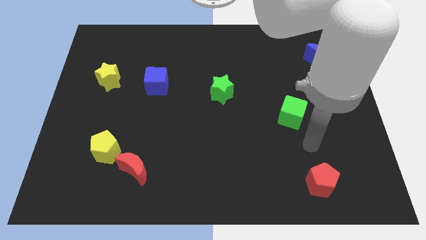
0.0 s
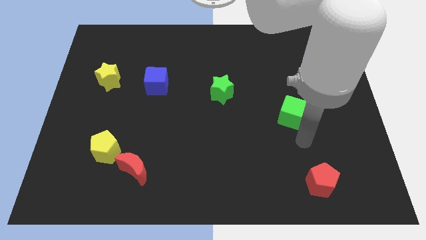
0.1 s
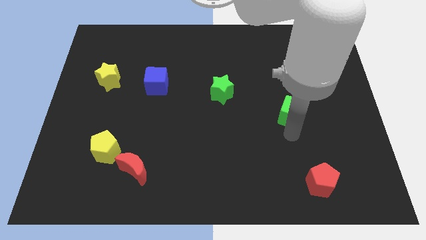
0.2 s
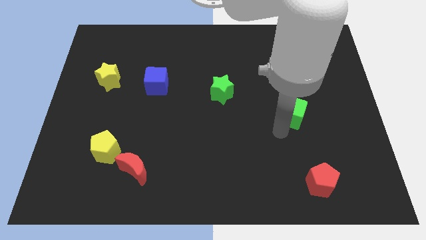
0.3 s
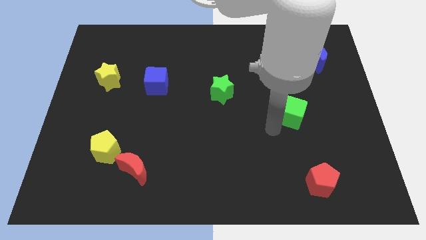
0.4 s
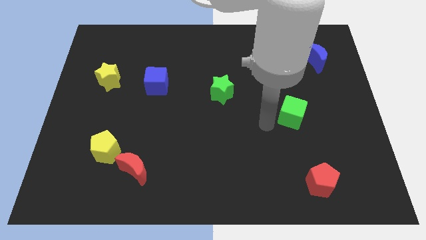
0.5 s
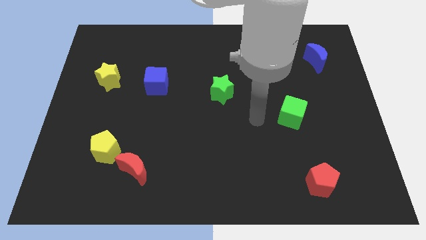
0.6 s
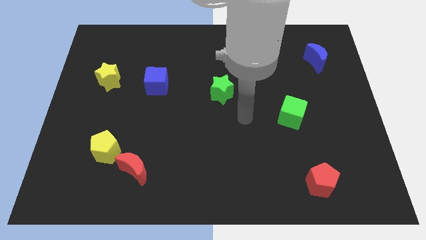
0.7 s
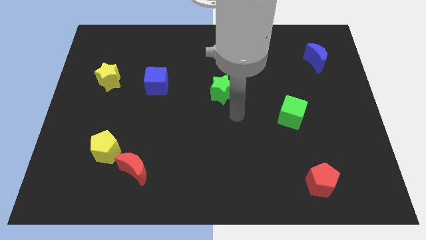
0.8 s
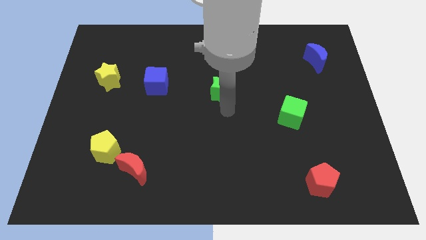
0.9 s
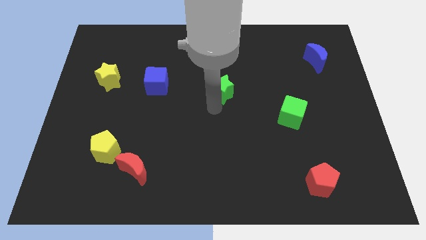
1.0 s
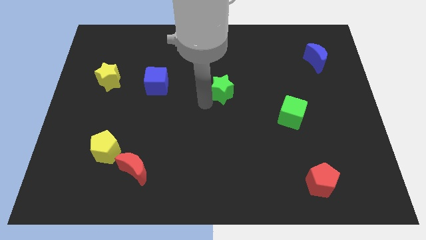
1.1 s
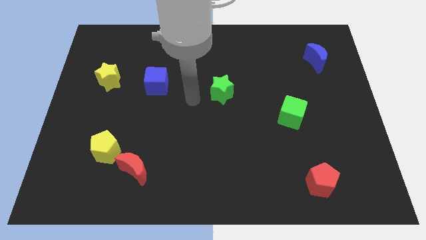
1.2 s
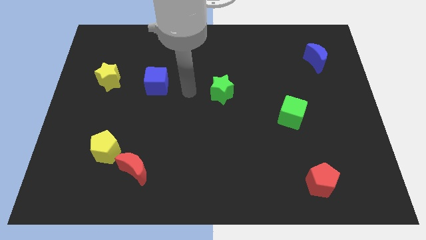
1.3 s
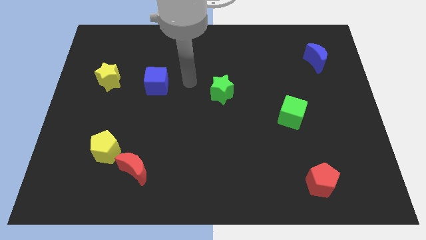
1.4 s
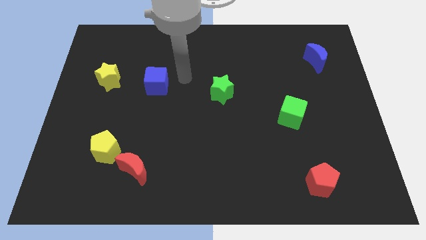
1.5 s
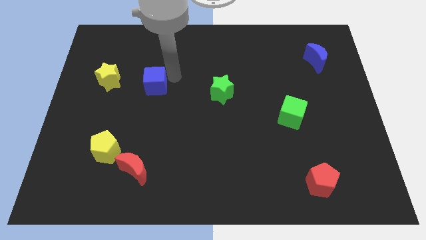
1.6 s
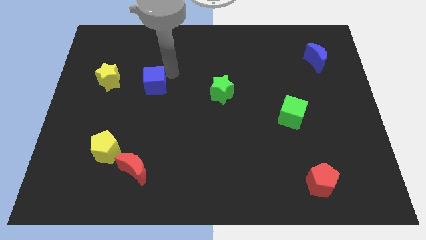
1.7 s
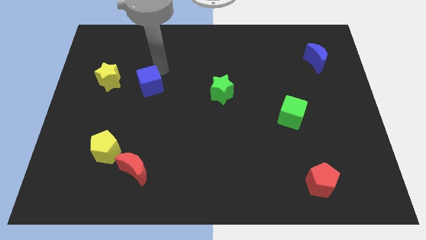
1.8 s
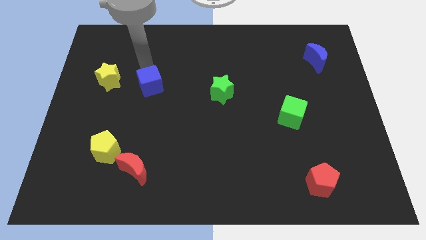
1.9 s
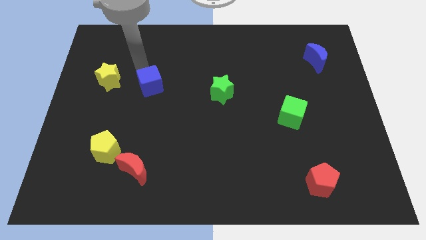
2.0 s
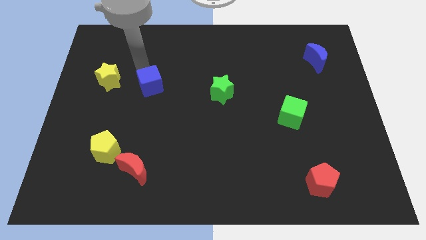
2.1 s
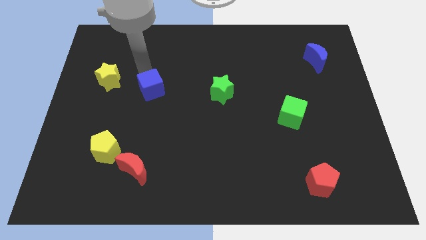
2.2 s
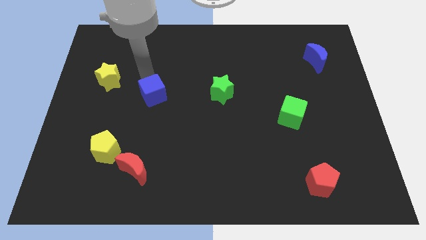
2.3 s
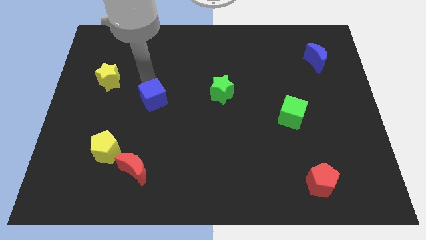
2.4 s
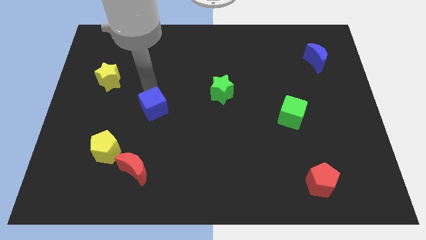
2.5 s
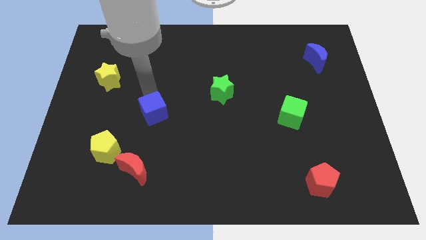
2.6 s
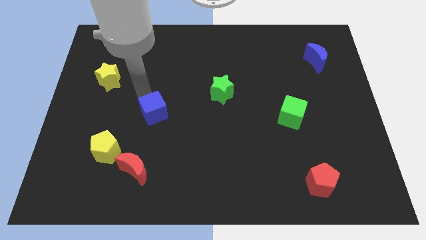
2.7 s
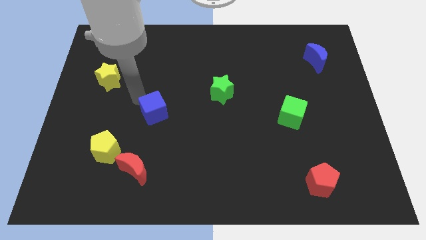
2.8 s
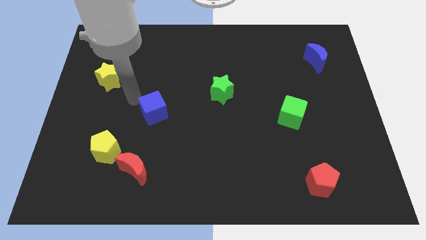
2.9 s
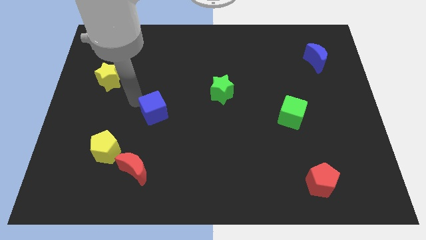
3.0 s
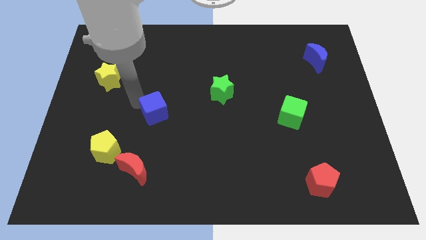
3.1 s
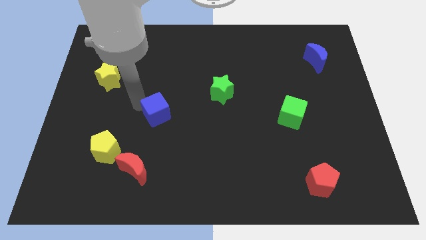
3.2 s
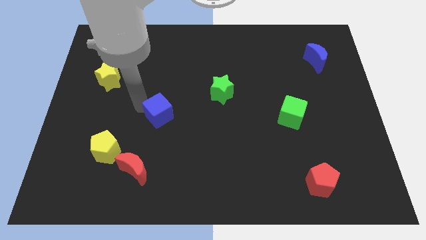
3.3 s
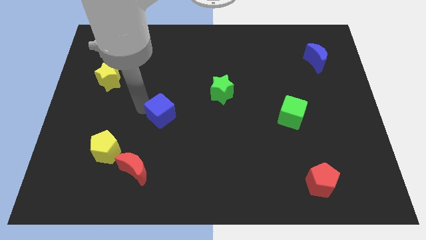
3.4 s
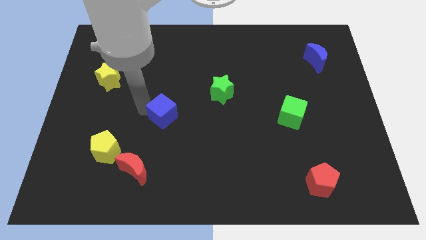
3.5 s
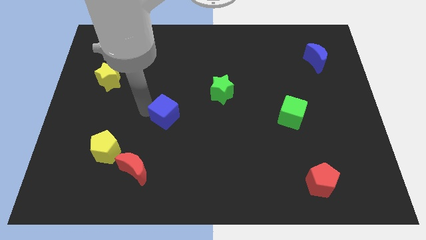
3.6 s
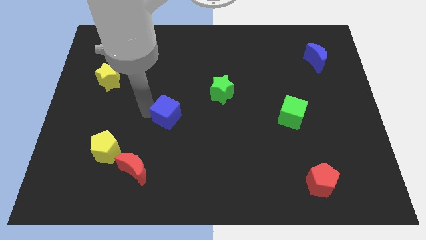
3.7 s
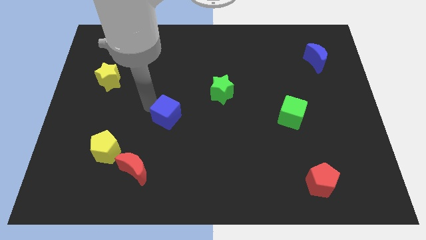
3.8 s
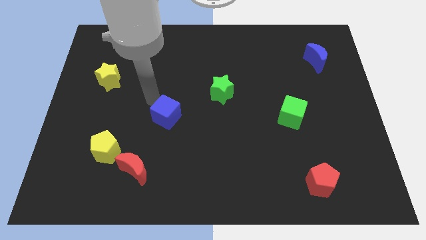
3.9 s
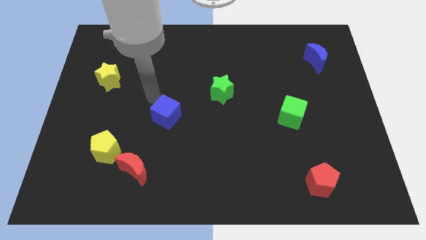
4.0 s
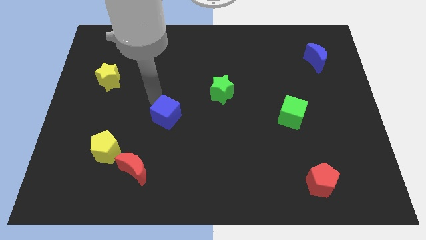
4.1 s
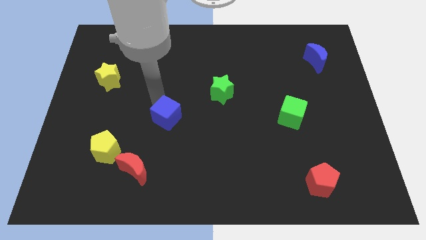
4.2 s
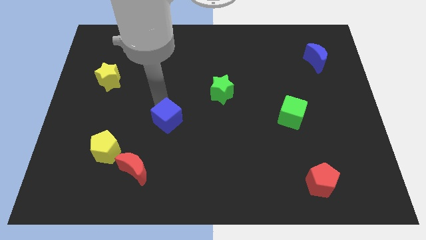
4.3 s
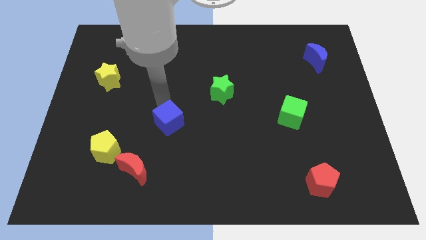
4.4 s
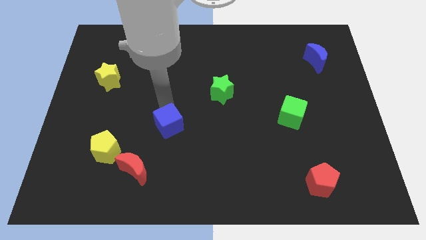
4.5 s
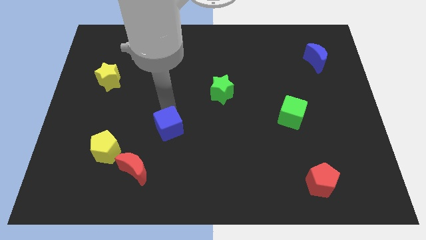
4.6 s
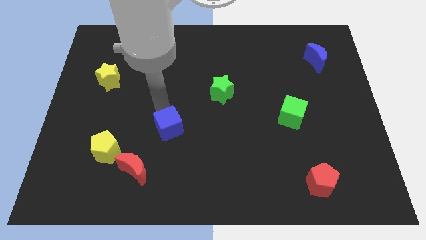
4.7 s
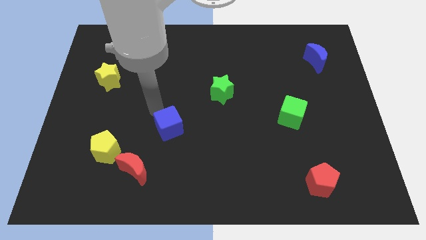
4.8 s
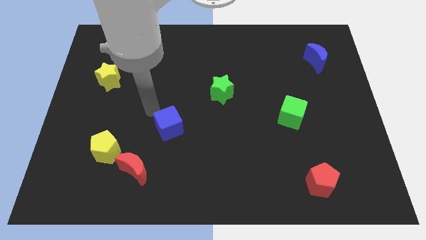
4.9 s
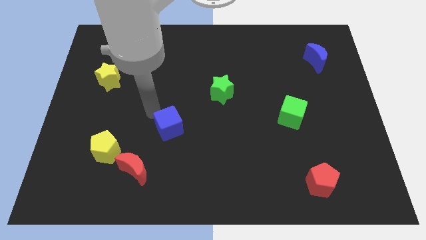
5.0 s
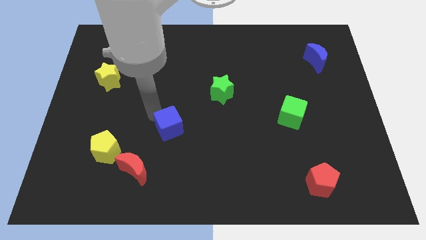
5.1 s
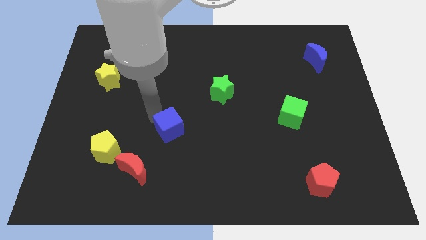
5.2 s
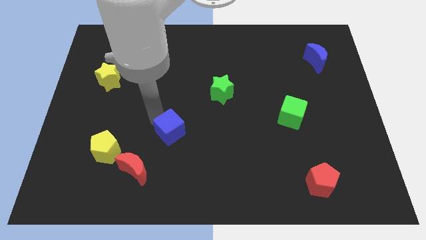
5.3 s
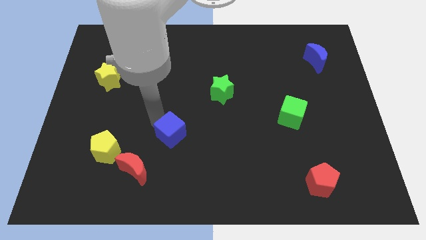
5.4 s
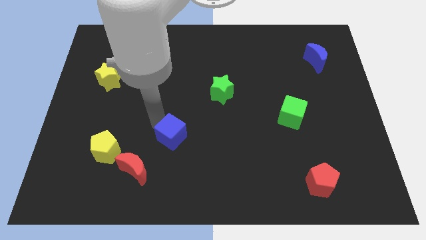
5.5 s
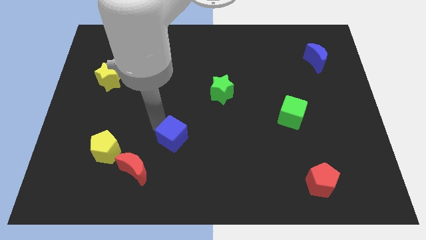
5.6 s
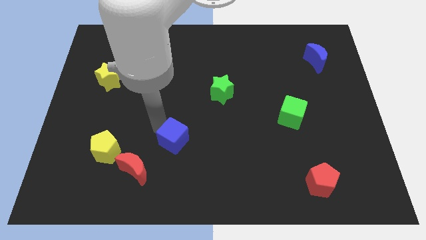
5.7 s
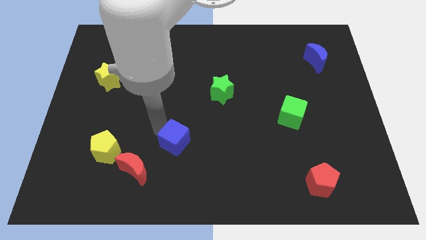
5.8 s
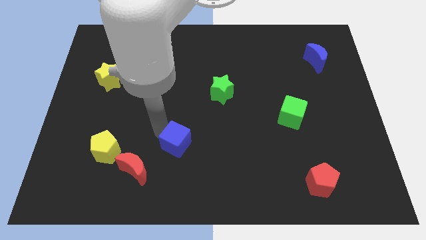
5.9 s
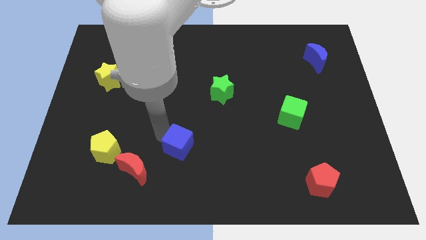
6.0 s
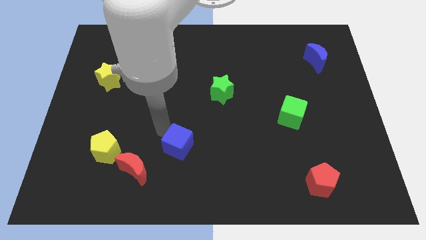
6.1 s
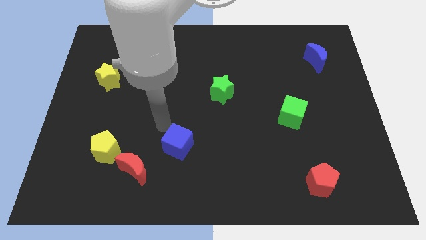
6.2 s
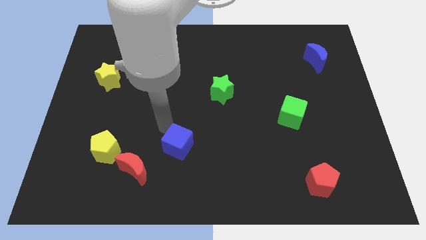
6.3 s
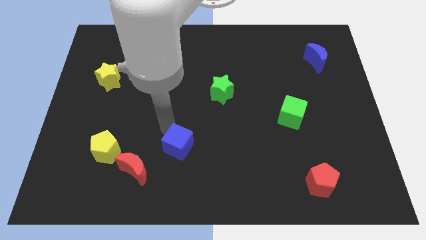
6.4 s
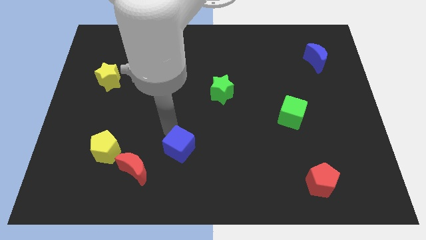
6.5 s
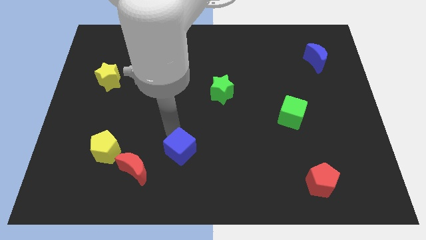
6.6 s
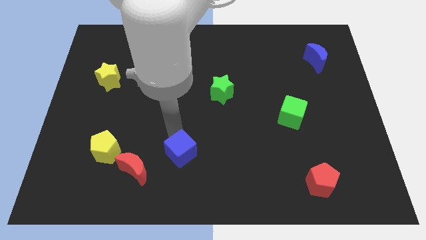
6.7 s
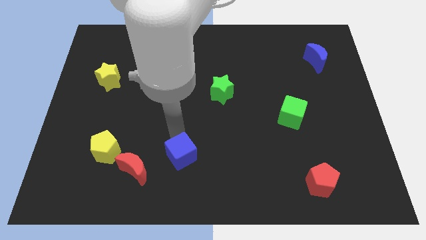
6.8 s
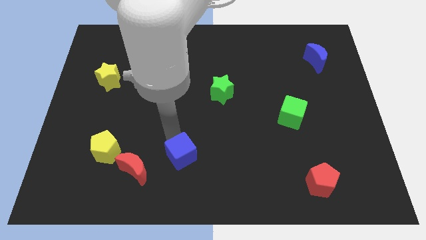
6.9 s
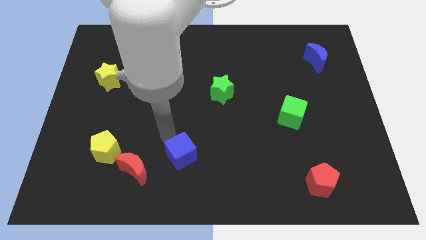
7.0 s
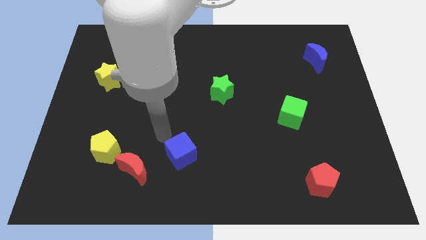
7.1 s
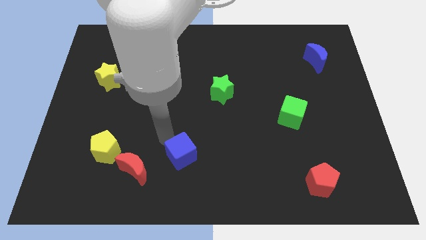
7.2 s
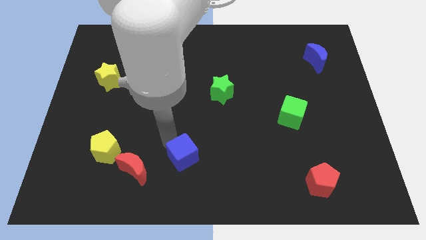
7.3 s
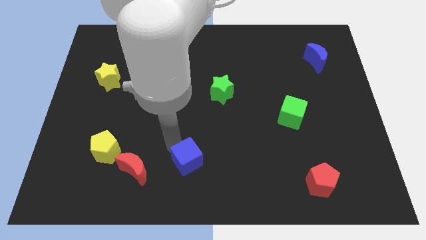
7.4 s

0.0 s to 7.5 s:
slide the blue cube to the bottom side

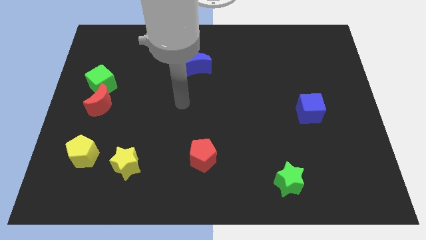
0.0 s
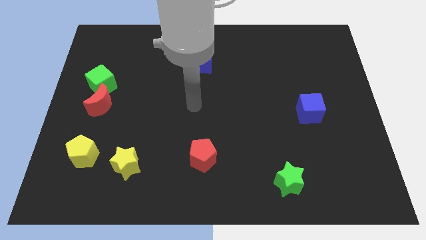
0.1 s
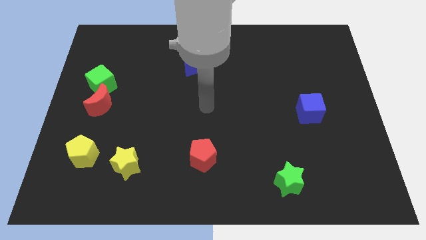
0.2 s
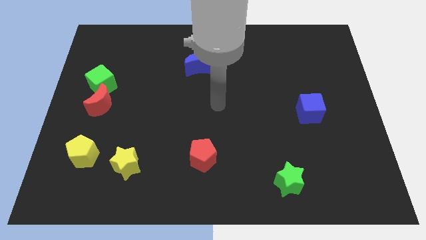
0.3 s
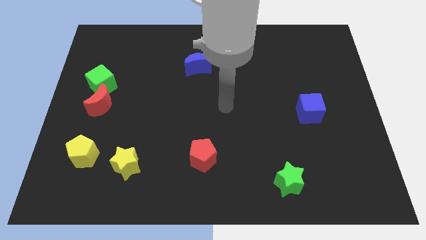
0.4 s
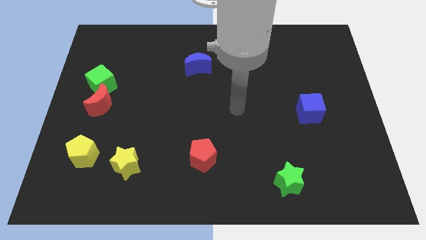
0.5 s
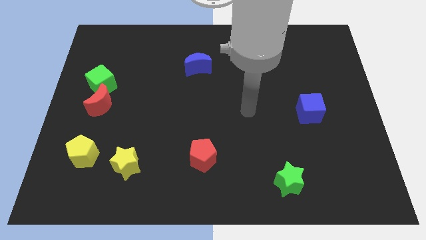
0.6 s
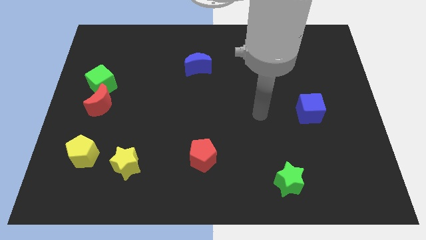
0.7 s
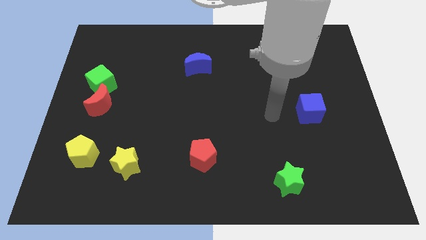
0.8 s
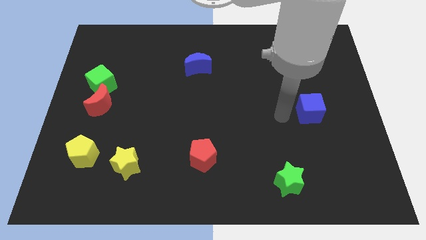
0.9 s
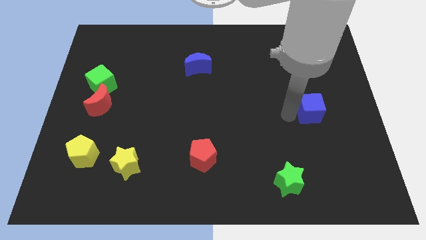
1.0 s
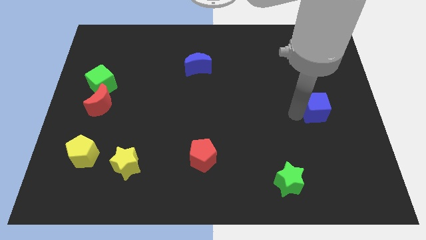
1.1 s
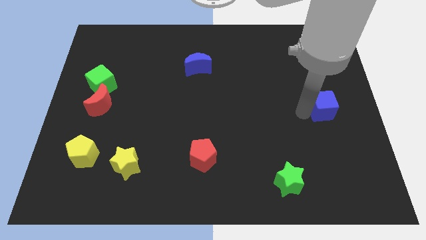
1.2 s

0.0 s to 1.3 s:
put the blue cube to the center right
